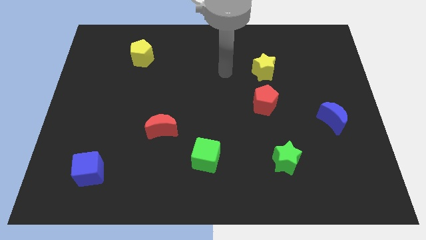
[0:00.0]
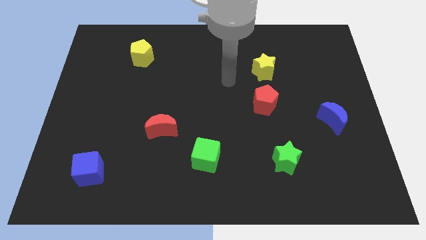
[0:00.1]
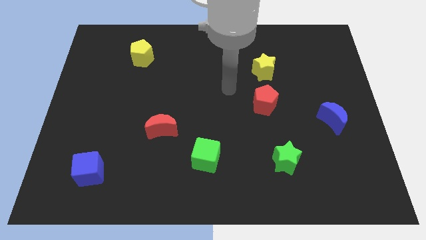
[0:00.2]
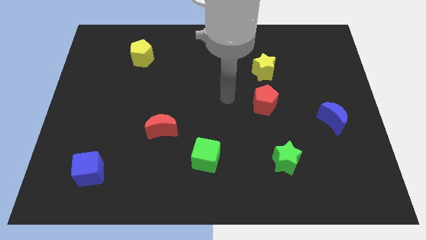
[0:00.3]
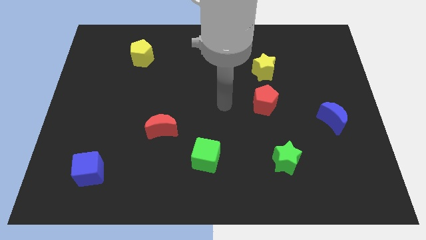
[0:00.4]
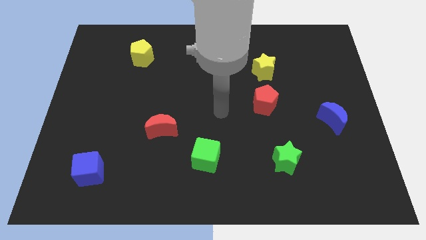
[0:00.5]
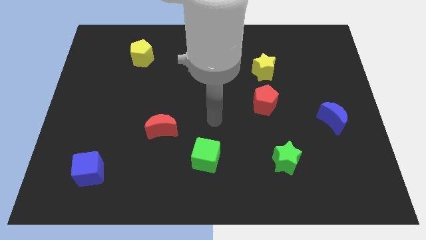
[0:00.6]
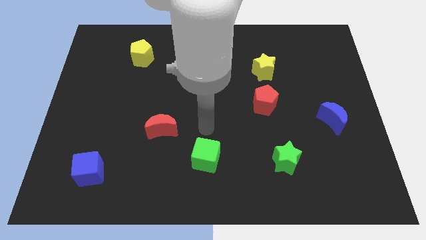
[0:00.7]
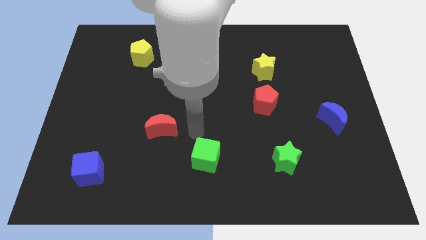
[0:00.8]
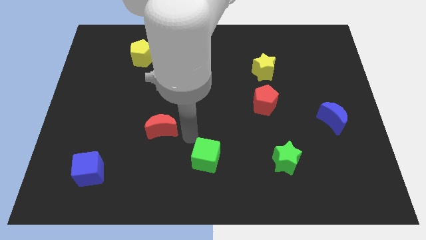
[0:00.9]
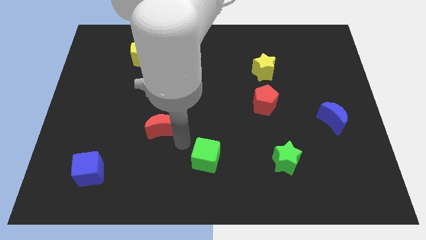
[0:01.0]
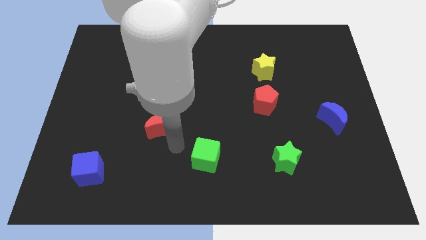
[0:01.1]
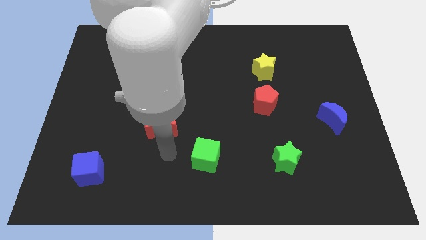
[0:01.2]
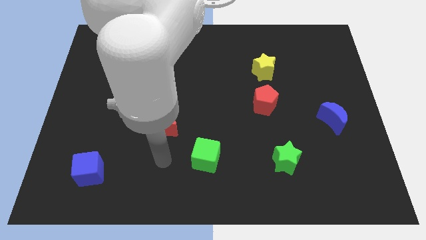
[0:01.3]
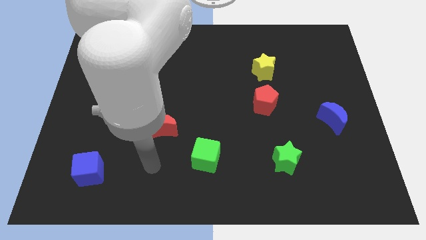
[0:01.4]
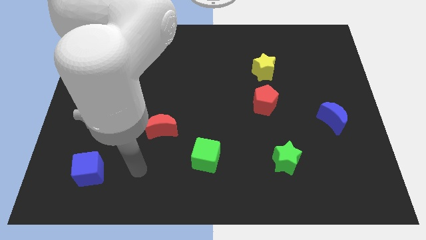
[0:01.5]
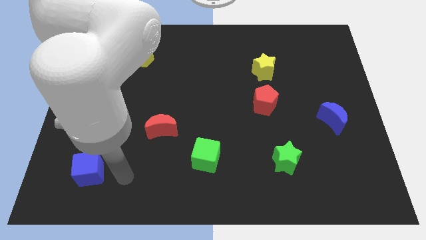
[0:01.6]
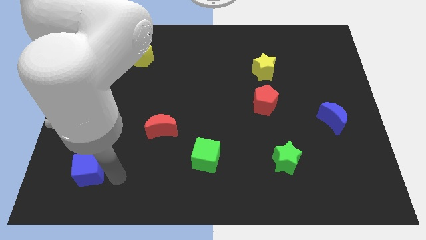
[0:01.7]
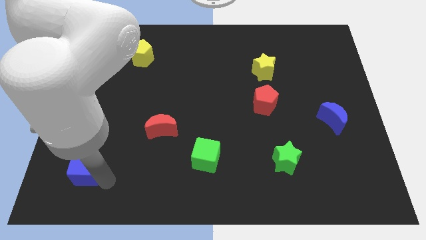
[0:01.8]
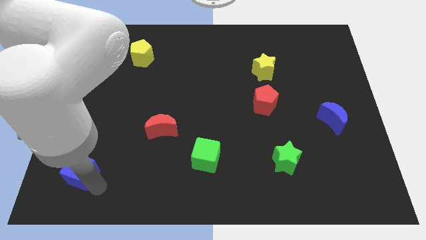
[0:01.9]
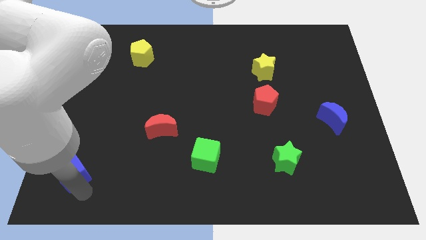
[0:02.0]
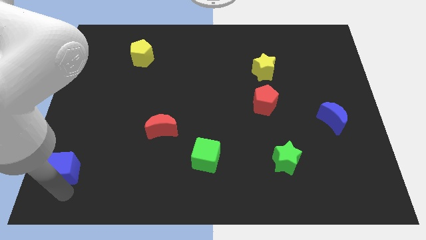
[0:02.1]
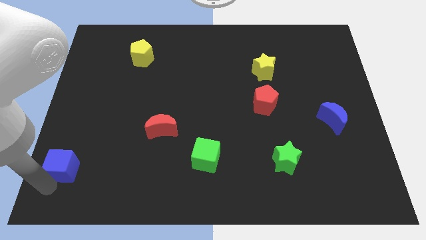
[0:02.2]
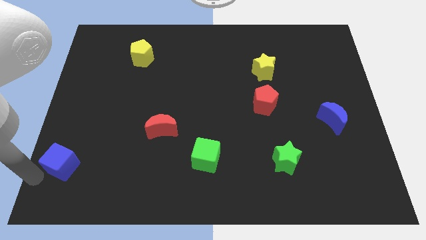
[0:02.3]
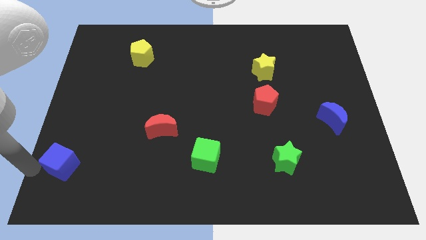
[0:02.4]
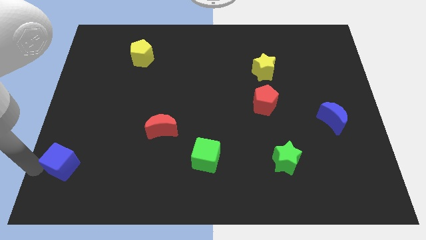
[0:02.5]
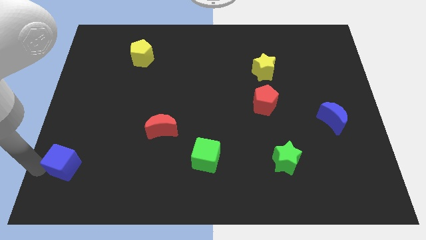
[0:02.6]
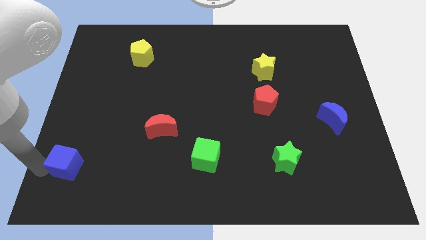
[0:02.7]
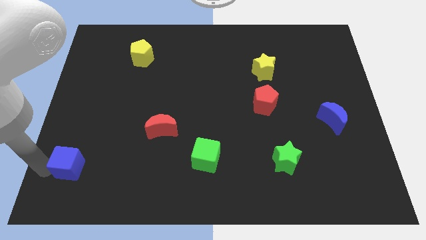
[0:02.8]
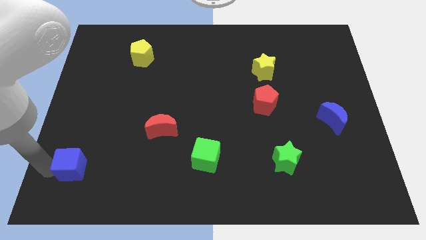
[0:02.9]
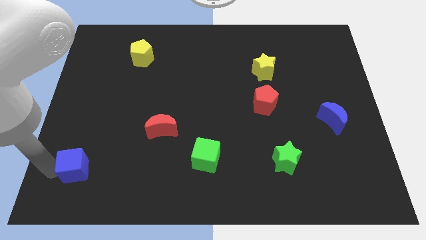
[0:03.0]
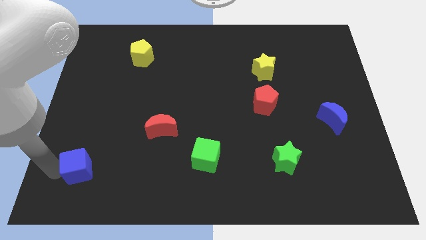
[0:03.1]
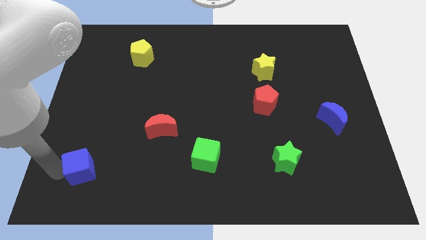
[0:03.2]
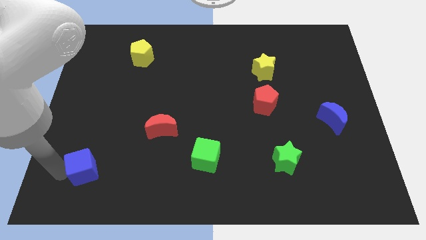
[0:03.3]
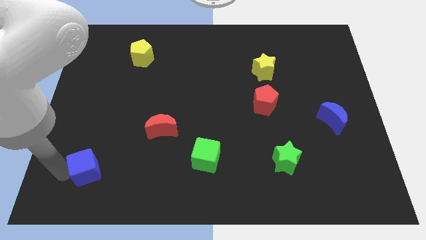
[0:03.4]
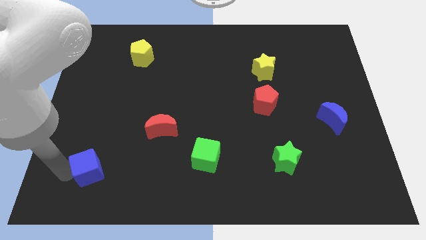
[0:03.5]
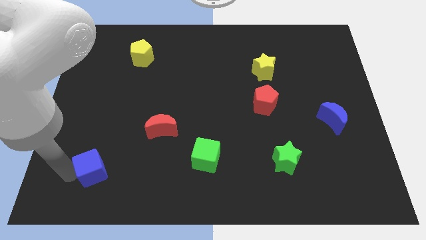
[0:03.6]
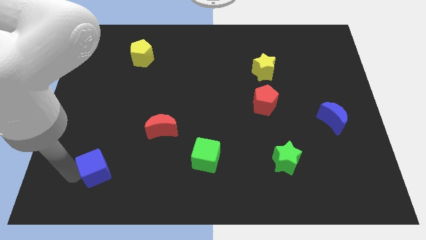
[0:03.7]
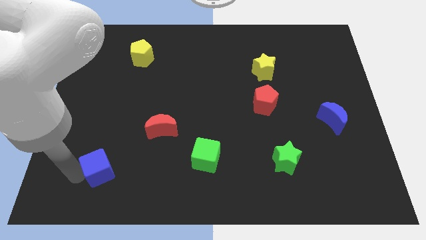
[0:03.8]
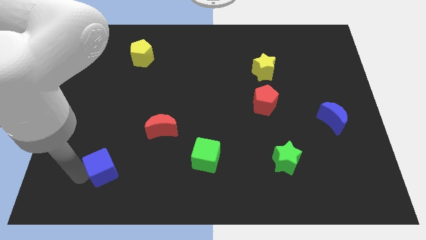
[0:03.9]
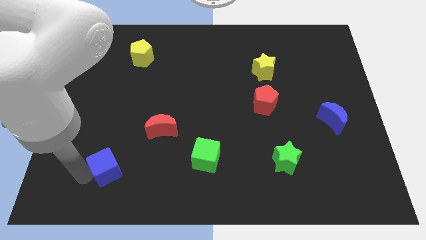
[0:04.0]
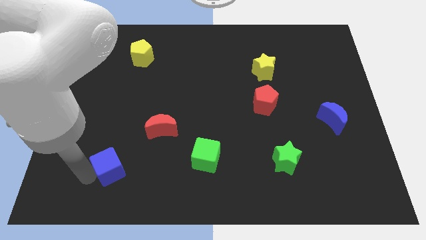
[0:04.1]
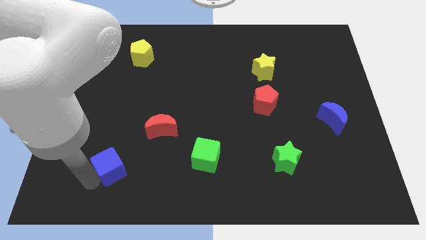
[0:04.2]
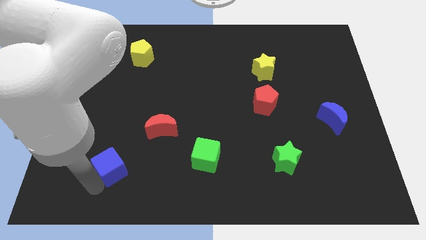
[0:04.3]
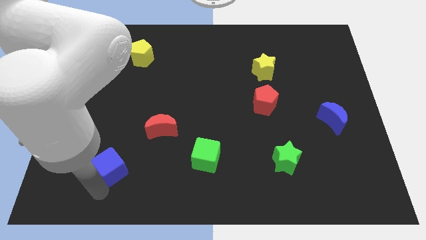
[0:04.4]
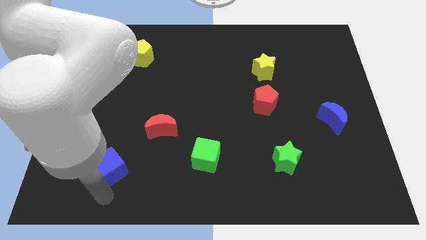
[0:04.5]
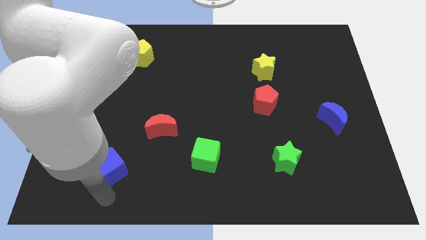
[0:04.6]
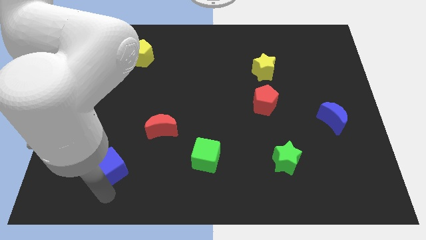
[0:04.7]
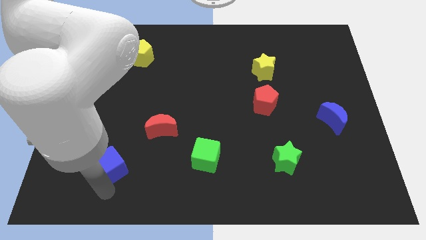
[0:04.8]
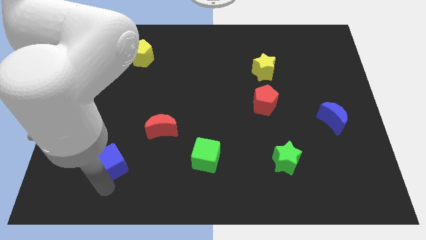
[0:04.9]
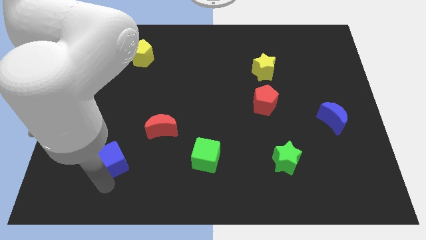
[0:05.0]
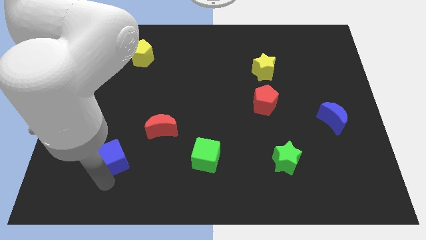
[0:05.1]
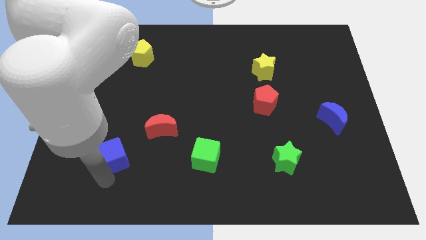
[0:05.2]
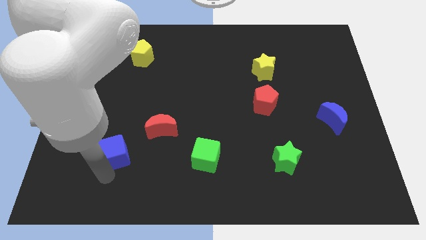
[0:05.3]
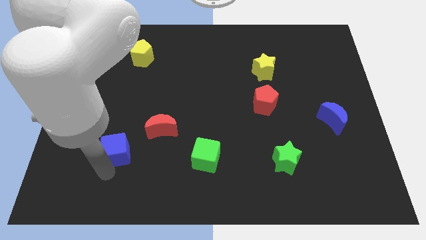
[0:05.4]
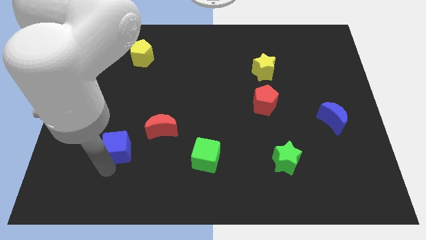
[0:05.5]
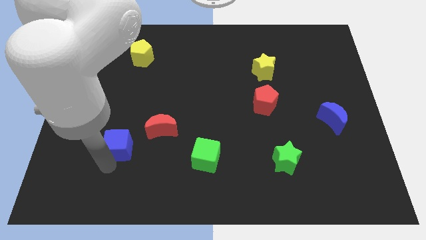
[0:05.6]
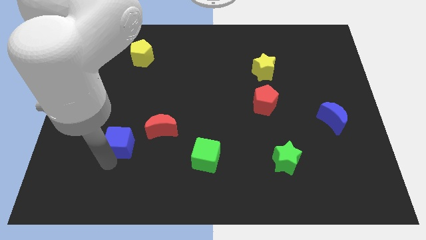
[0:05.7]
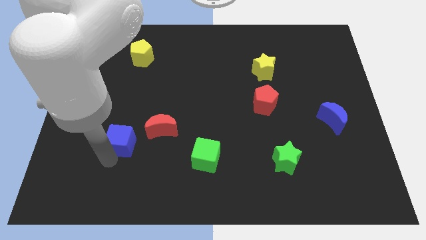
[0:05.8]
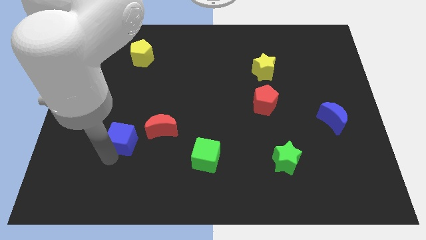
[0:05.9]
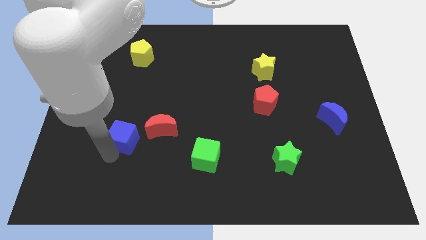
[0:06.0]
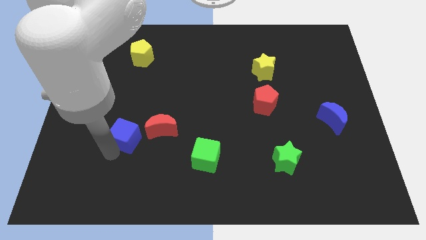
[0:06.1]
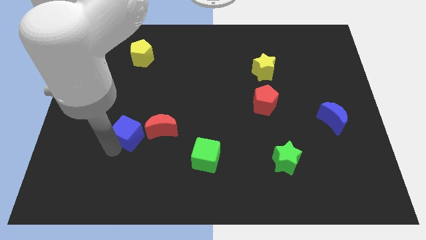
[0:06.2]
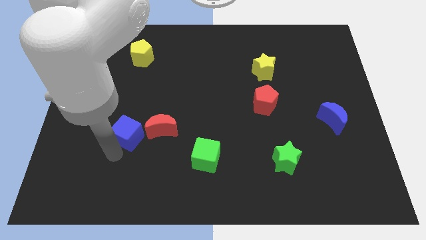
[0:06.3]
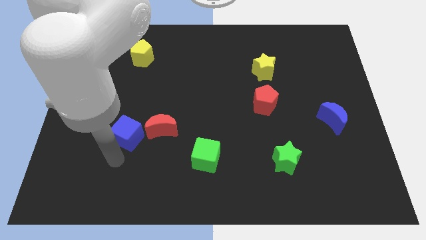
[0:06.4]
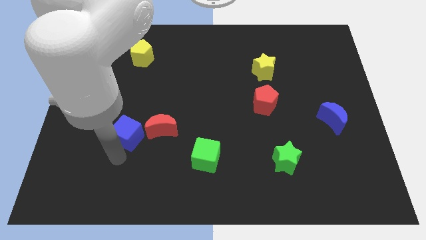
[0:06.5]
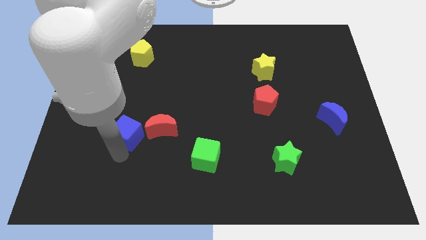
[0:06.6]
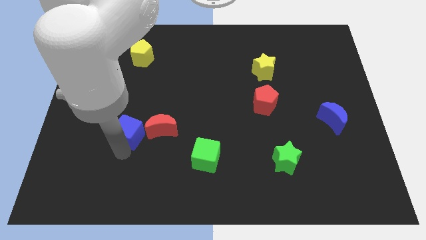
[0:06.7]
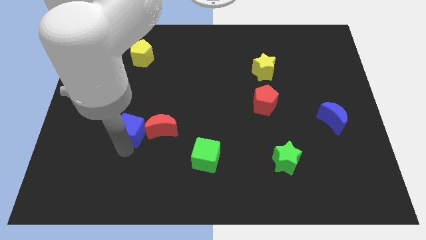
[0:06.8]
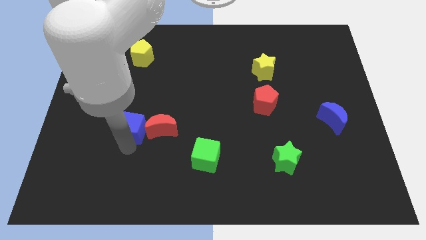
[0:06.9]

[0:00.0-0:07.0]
put the blue cube to the top left of the red moon
